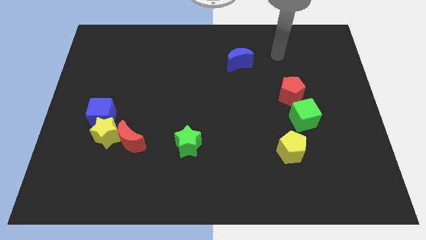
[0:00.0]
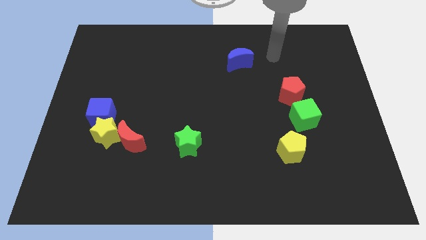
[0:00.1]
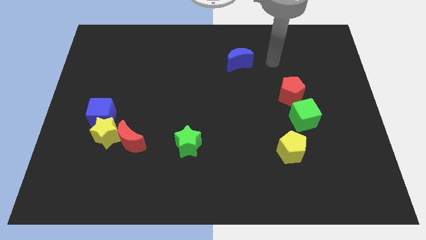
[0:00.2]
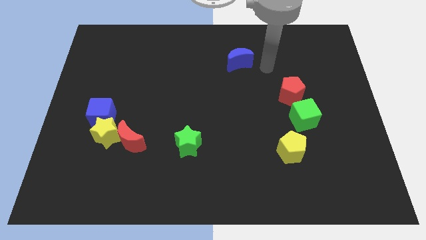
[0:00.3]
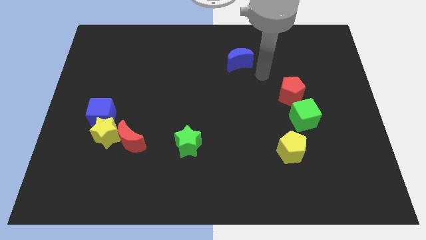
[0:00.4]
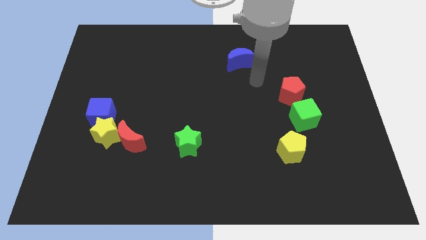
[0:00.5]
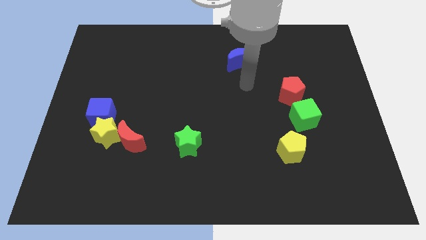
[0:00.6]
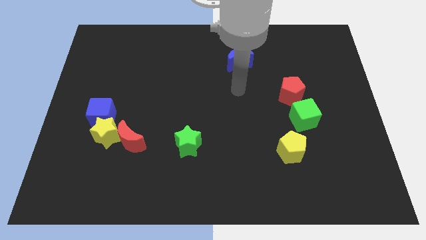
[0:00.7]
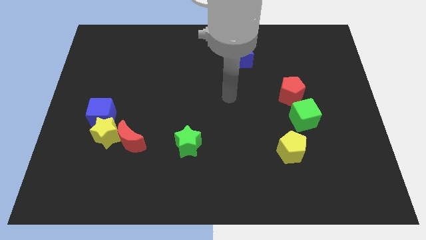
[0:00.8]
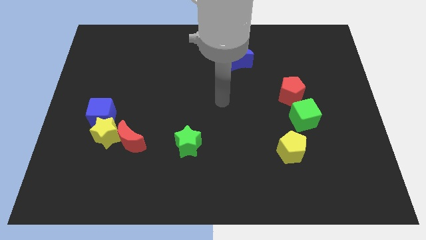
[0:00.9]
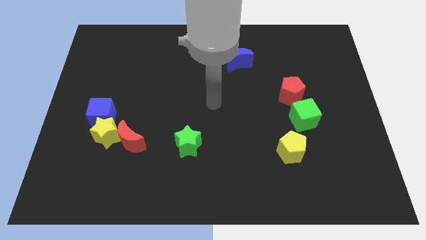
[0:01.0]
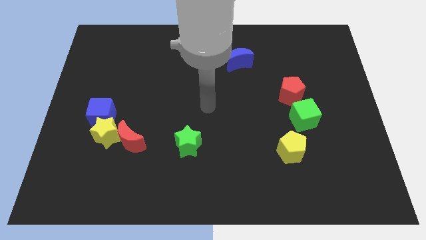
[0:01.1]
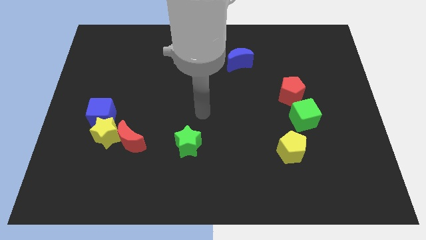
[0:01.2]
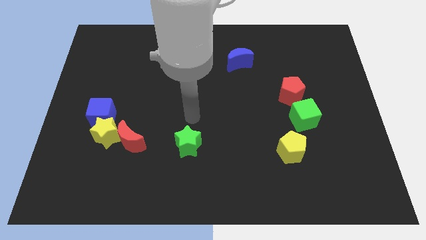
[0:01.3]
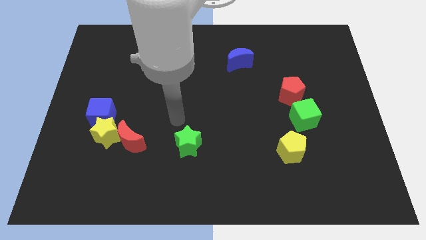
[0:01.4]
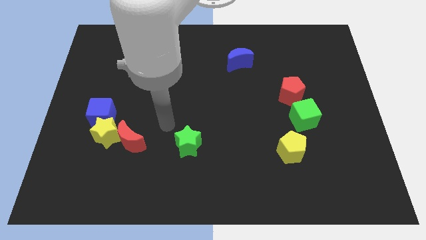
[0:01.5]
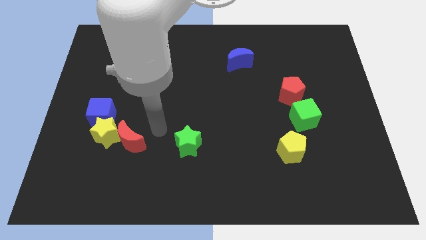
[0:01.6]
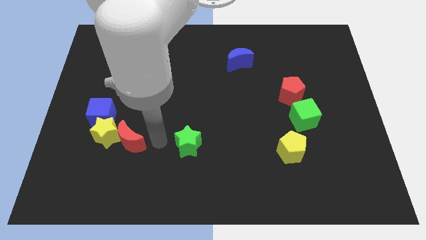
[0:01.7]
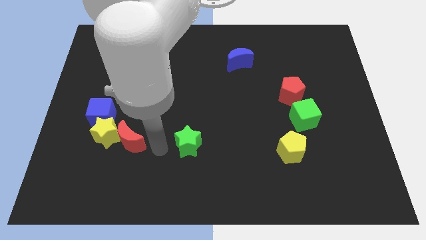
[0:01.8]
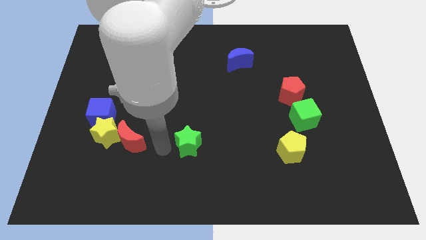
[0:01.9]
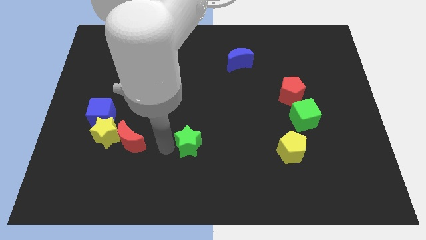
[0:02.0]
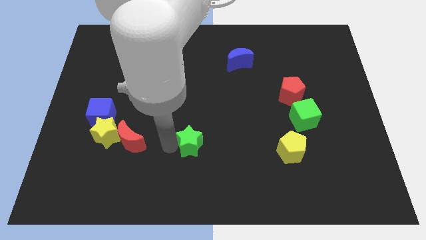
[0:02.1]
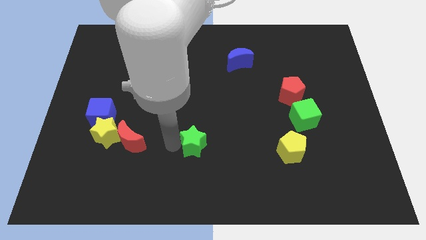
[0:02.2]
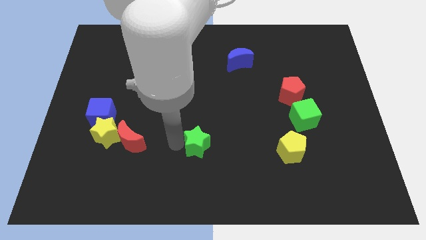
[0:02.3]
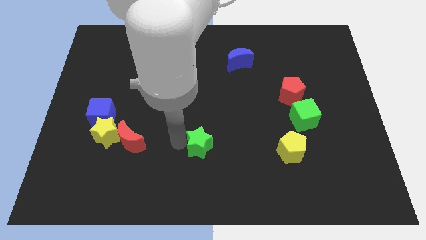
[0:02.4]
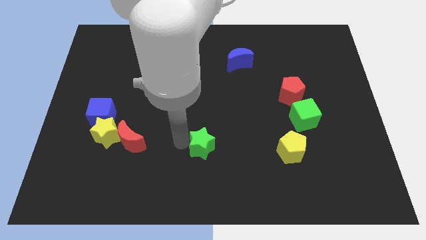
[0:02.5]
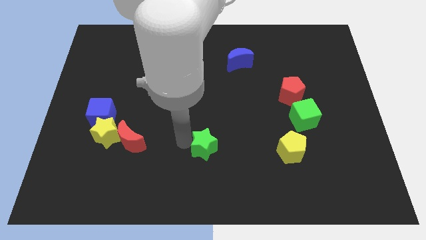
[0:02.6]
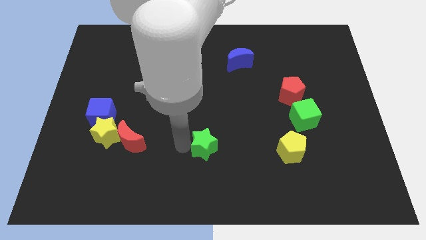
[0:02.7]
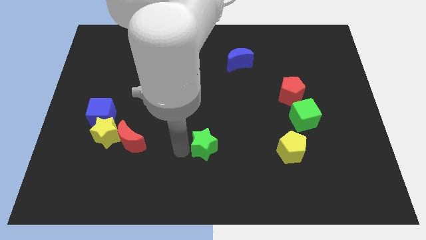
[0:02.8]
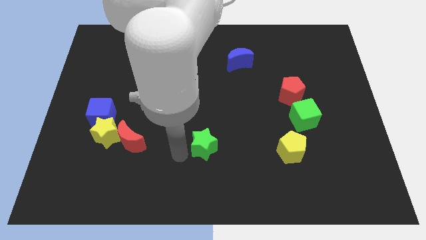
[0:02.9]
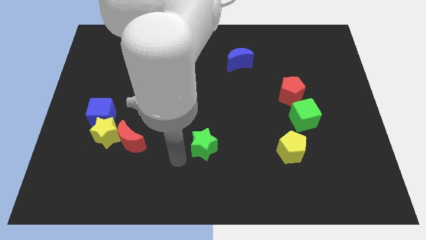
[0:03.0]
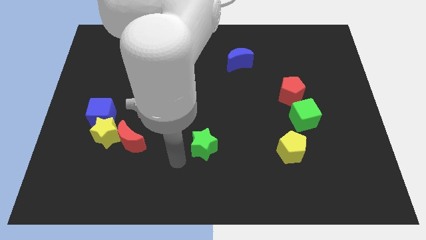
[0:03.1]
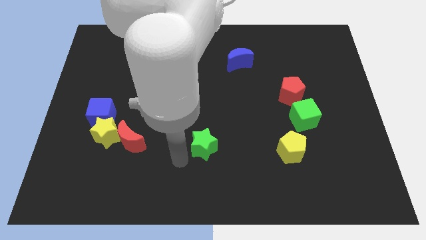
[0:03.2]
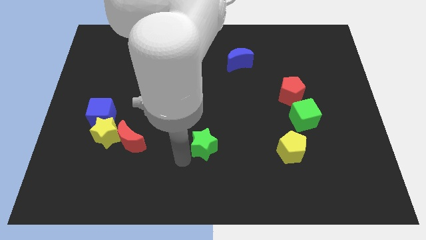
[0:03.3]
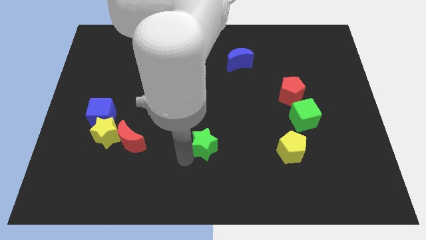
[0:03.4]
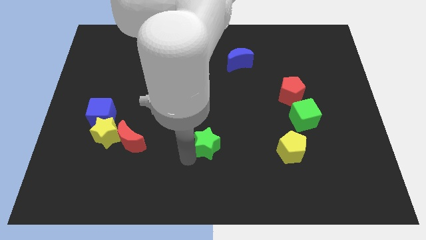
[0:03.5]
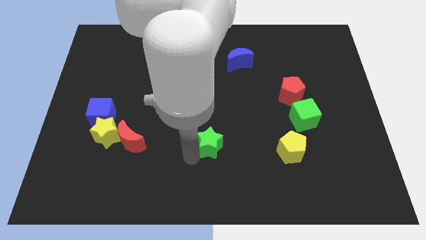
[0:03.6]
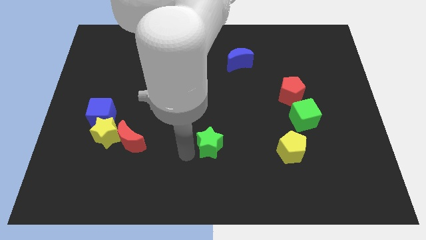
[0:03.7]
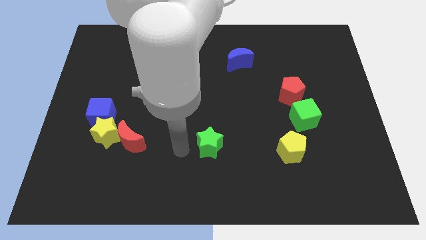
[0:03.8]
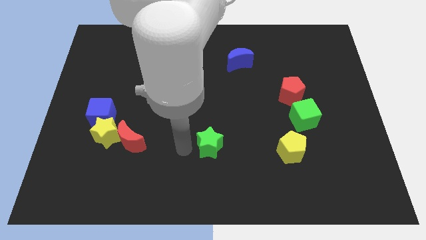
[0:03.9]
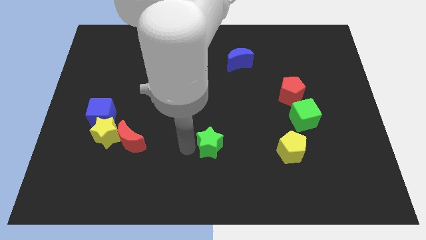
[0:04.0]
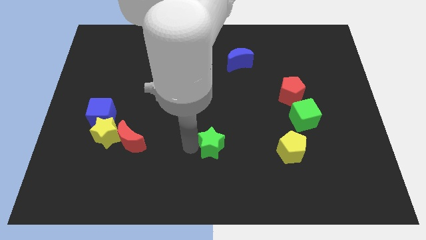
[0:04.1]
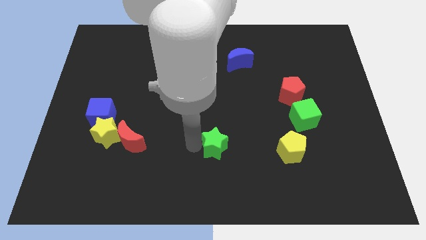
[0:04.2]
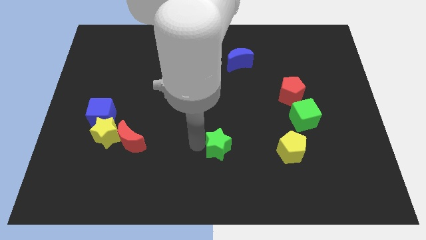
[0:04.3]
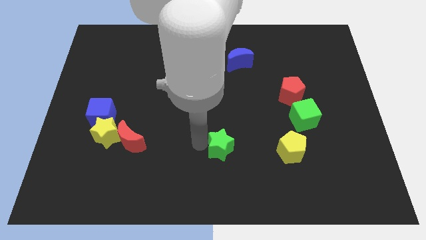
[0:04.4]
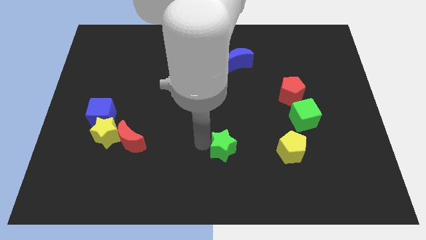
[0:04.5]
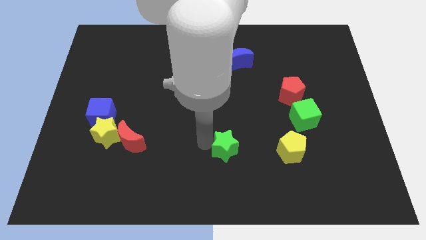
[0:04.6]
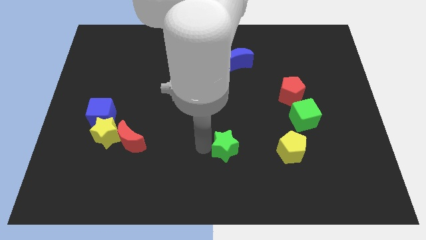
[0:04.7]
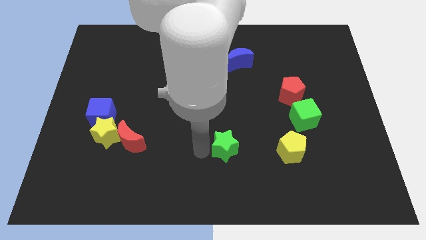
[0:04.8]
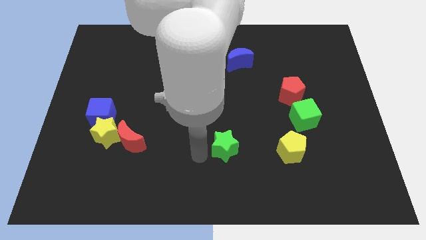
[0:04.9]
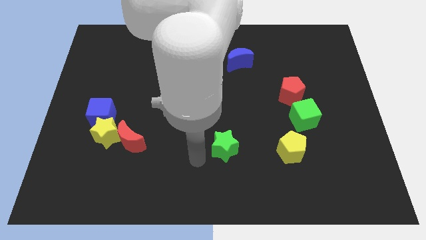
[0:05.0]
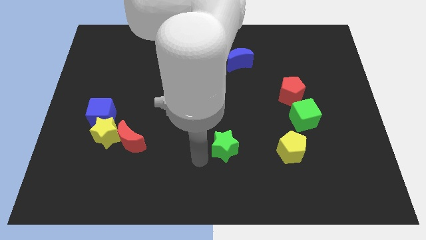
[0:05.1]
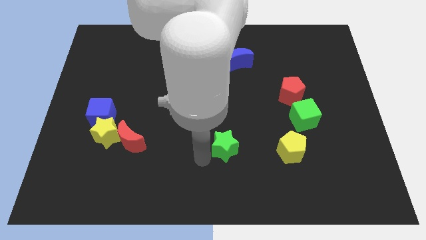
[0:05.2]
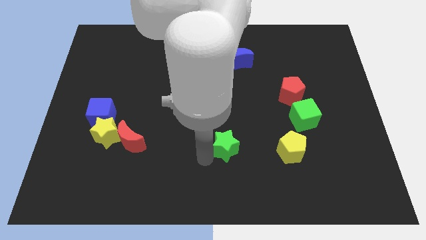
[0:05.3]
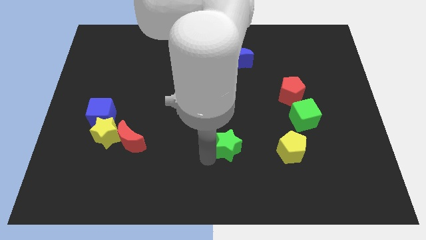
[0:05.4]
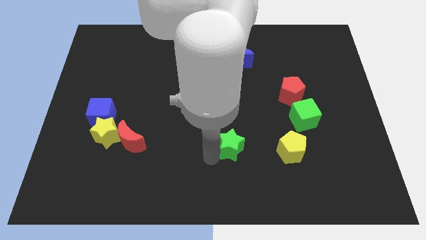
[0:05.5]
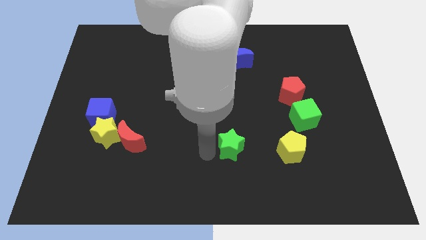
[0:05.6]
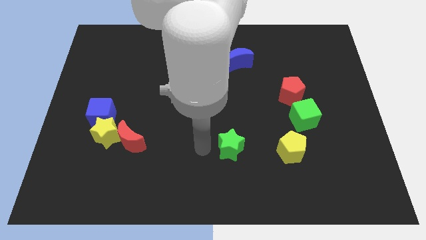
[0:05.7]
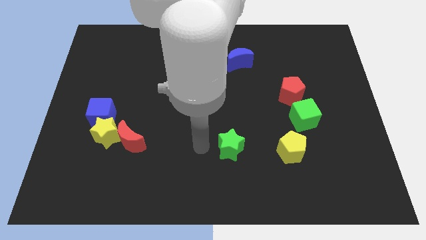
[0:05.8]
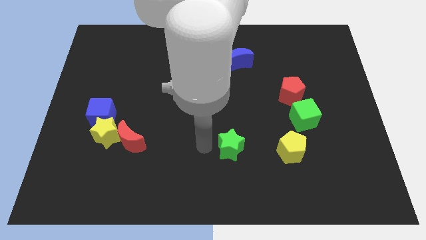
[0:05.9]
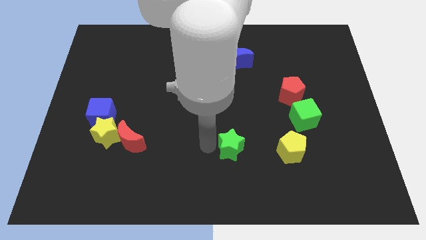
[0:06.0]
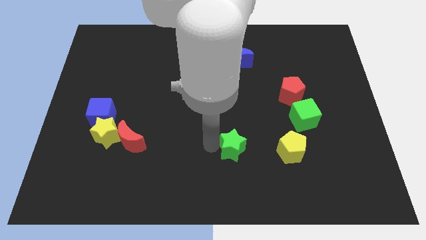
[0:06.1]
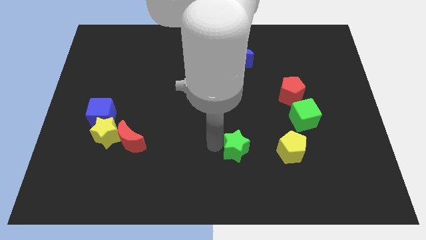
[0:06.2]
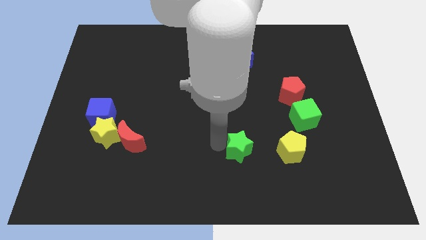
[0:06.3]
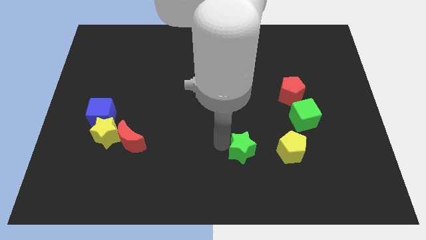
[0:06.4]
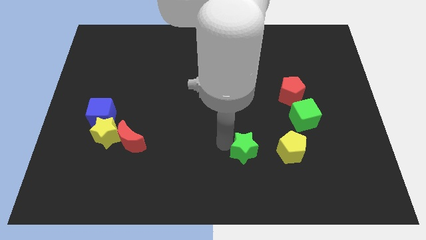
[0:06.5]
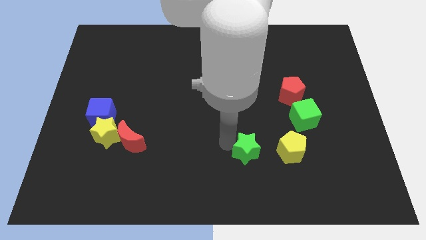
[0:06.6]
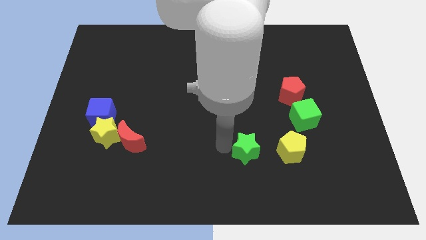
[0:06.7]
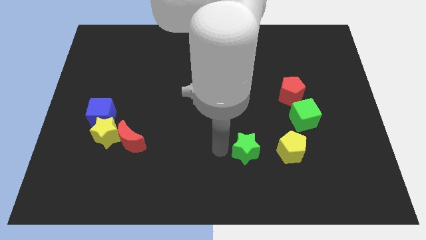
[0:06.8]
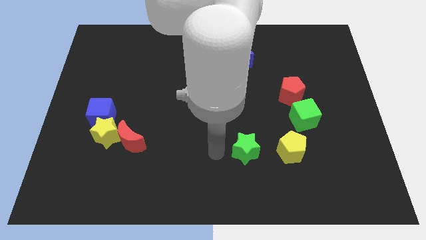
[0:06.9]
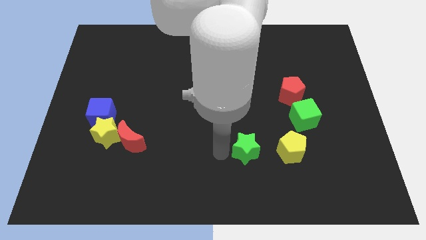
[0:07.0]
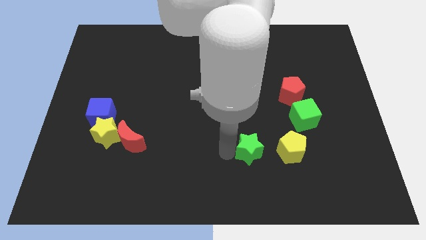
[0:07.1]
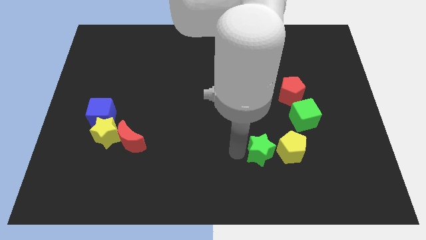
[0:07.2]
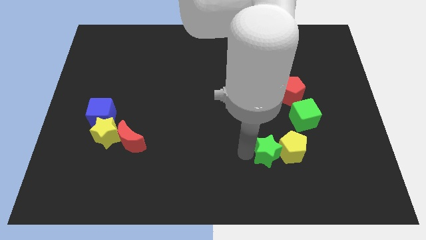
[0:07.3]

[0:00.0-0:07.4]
slide the green star next to the yellow pentagon
